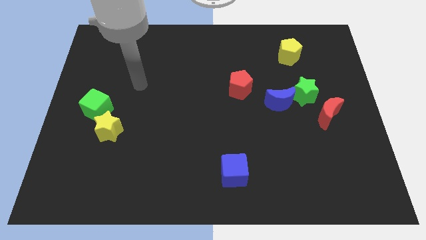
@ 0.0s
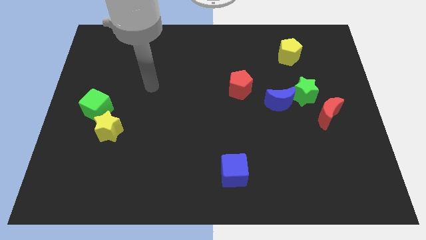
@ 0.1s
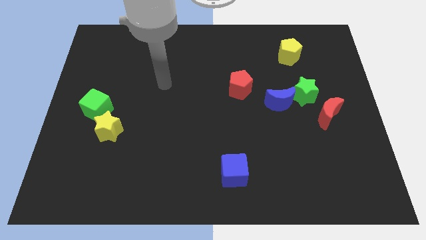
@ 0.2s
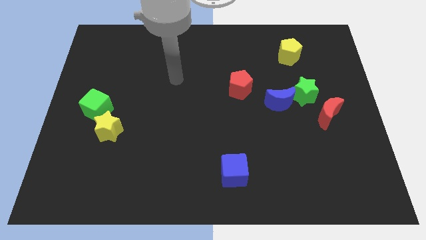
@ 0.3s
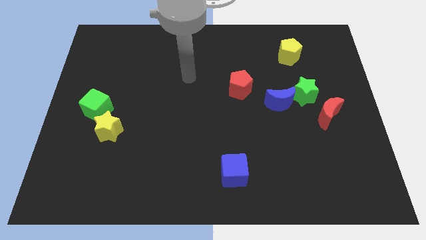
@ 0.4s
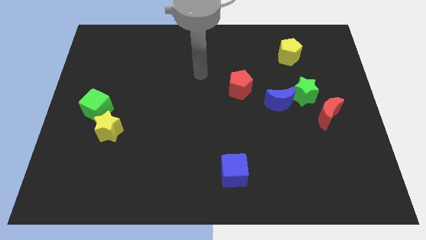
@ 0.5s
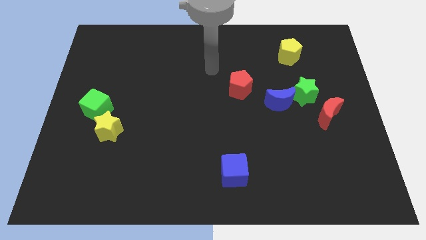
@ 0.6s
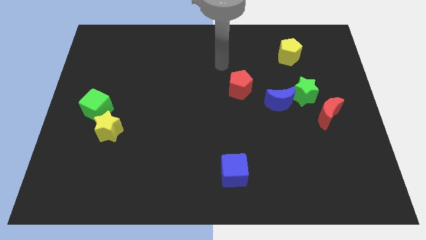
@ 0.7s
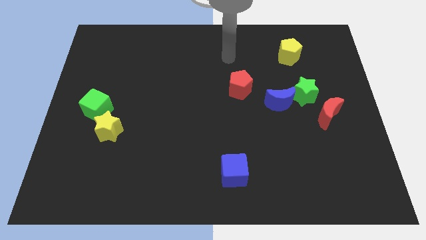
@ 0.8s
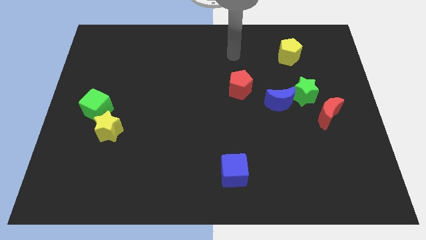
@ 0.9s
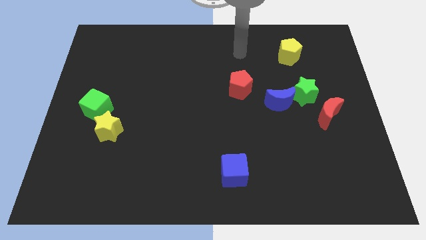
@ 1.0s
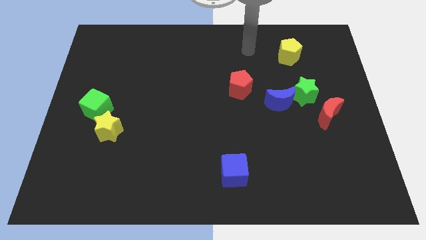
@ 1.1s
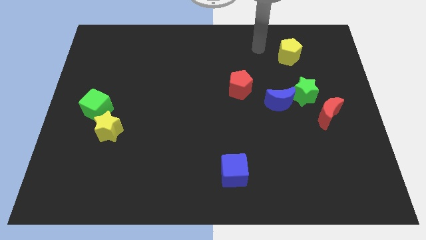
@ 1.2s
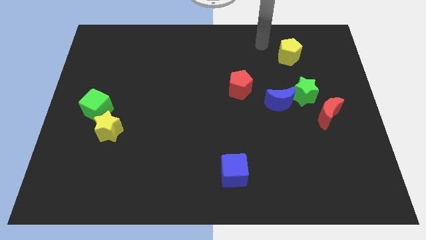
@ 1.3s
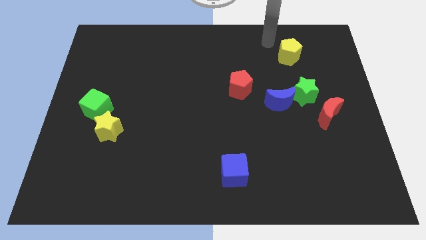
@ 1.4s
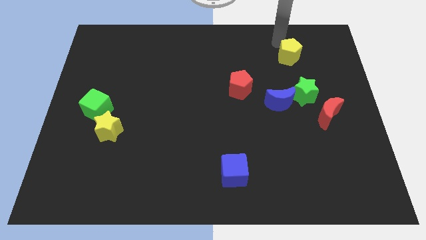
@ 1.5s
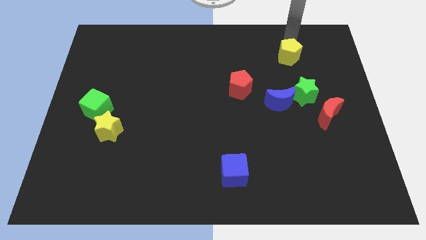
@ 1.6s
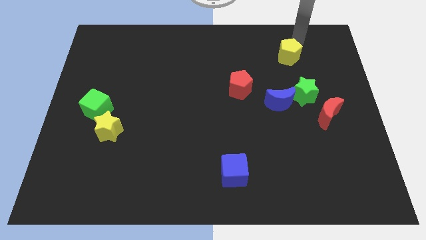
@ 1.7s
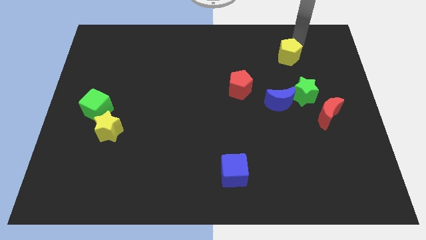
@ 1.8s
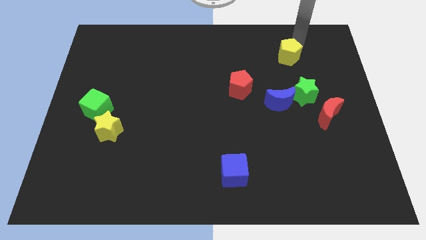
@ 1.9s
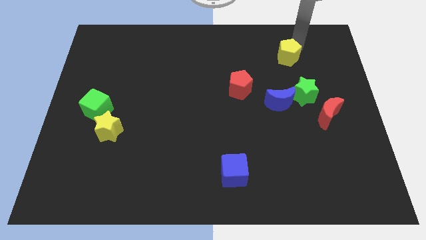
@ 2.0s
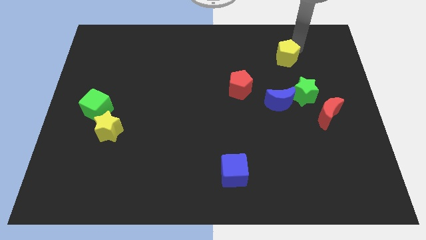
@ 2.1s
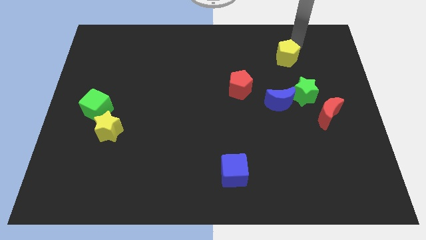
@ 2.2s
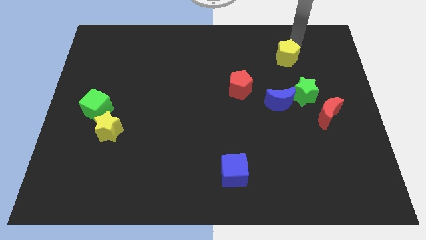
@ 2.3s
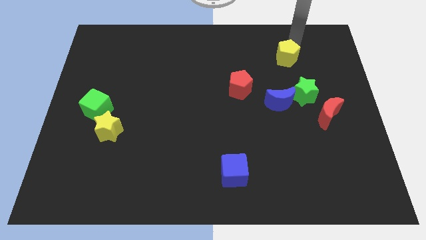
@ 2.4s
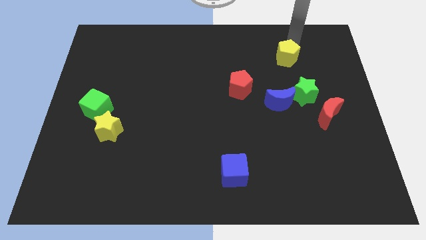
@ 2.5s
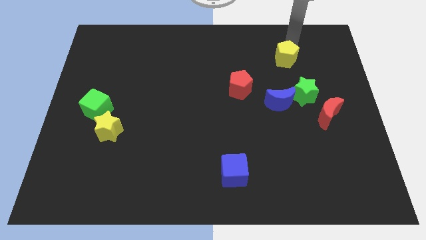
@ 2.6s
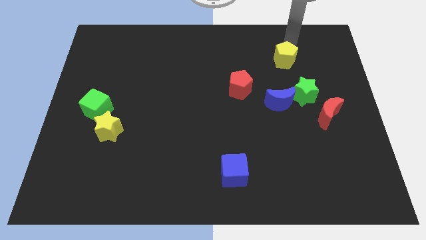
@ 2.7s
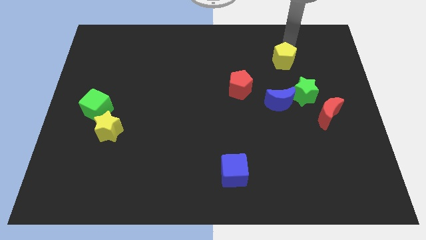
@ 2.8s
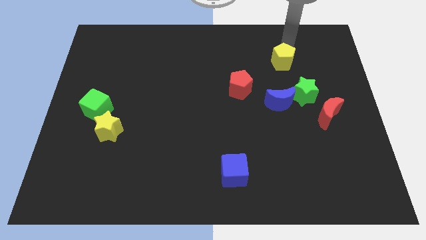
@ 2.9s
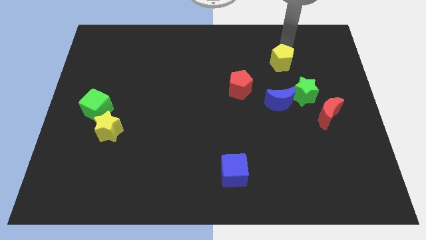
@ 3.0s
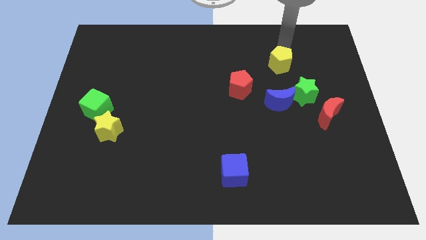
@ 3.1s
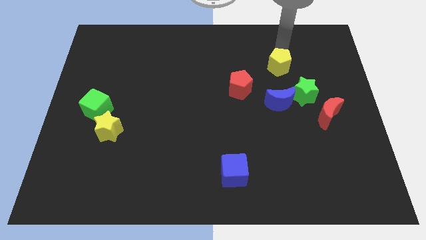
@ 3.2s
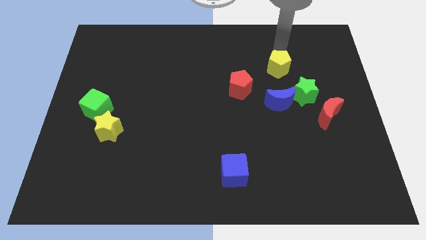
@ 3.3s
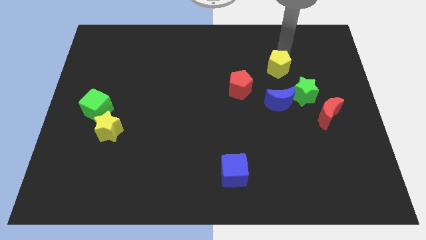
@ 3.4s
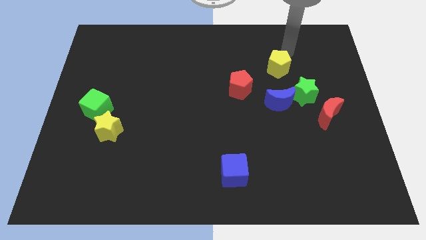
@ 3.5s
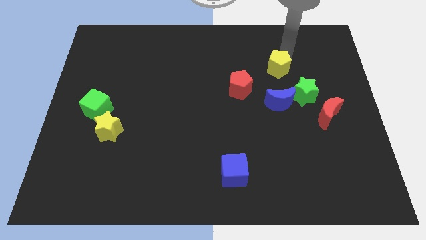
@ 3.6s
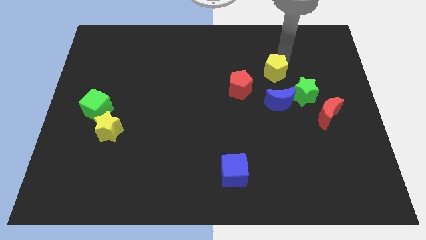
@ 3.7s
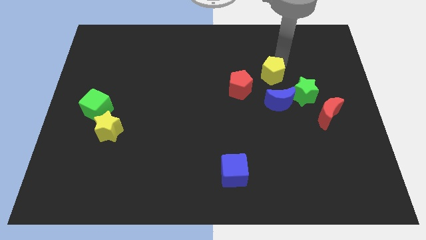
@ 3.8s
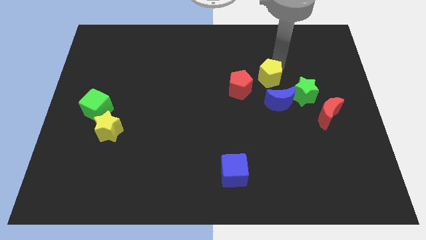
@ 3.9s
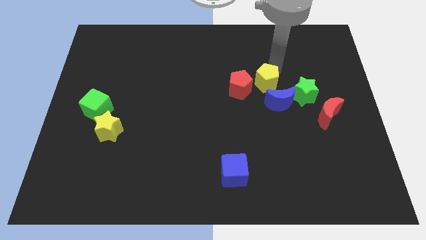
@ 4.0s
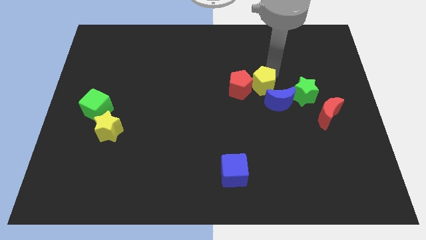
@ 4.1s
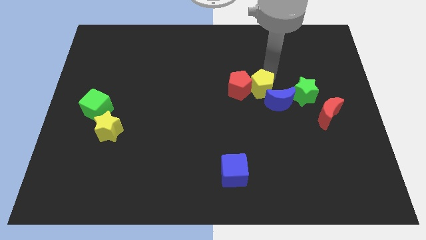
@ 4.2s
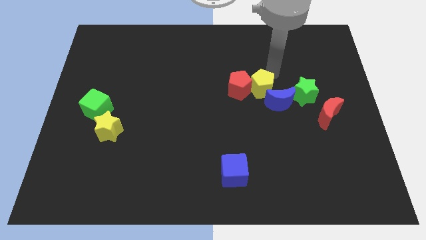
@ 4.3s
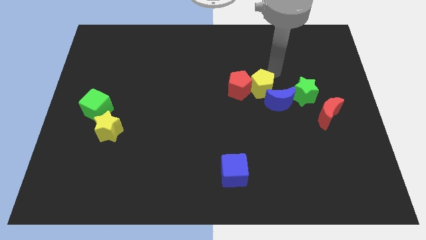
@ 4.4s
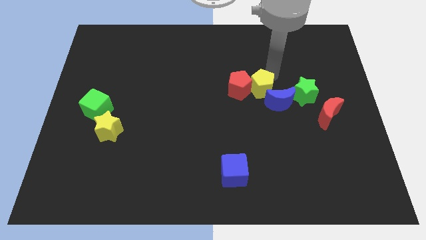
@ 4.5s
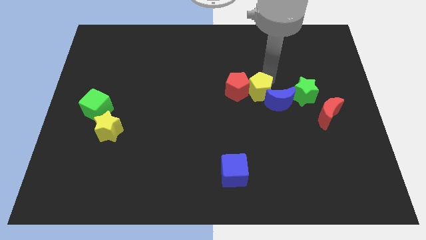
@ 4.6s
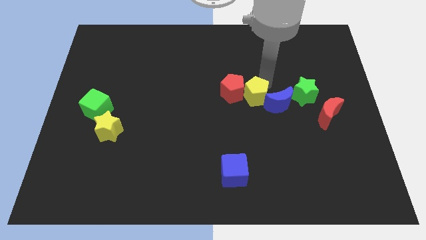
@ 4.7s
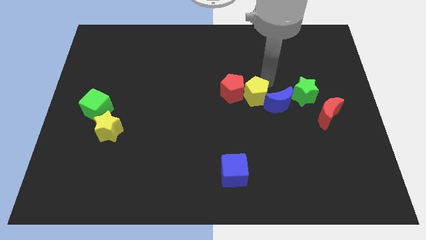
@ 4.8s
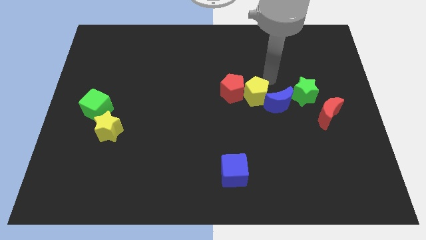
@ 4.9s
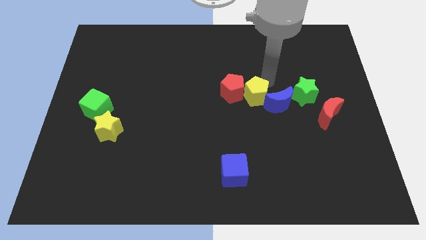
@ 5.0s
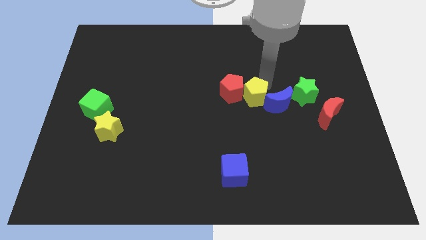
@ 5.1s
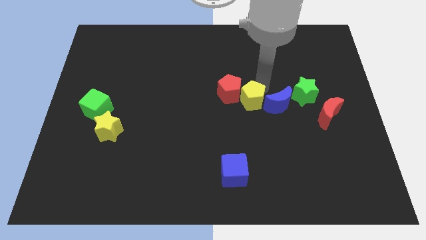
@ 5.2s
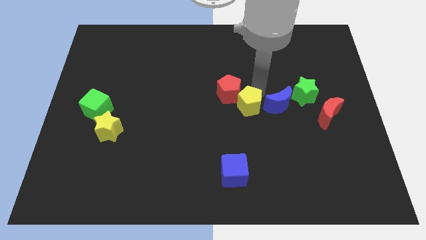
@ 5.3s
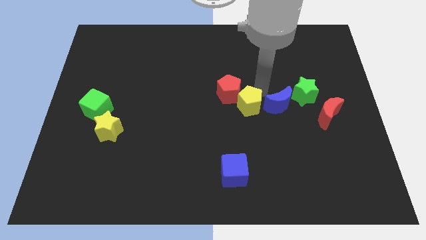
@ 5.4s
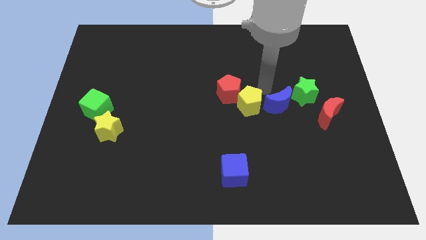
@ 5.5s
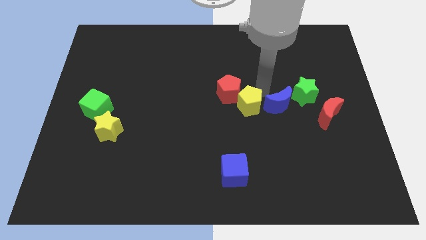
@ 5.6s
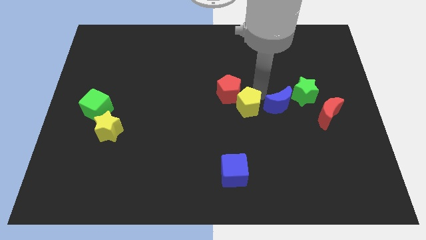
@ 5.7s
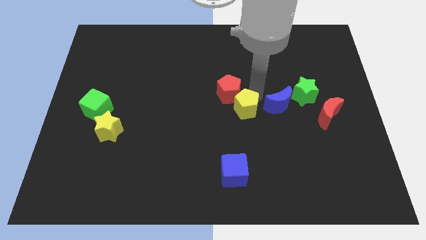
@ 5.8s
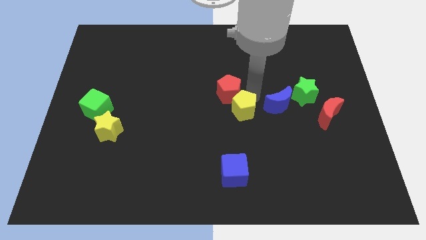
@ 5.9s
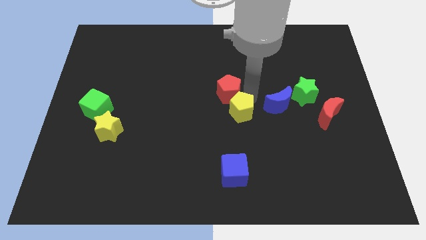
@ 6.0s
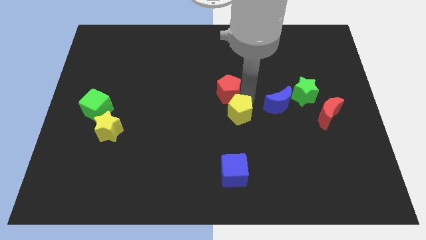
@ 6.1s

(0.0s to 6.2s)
put the yellow pentagon to the top side of the blue cube
